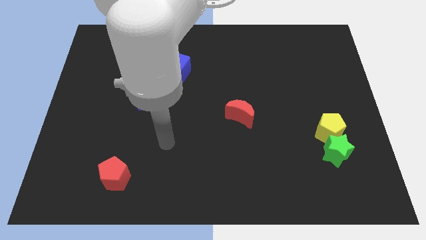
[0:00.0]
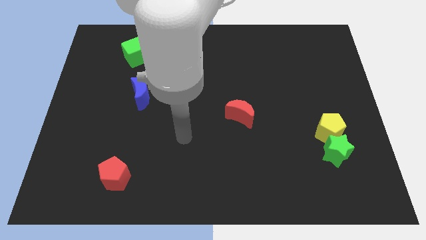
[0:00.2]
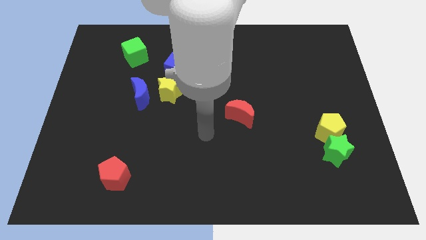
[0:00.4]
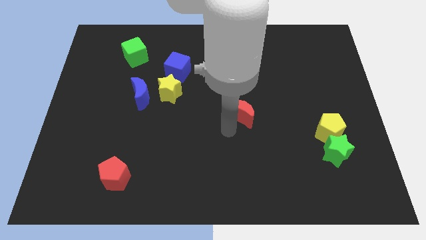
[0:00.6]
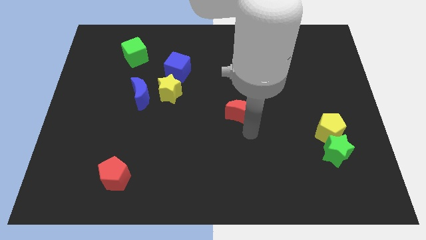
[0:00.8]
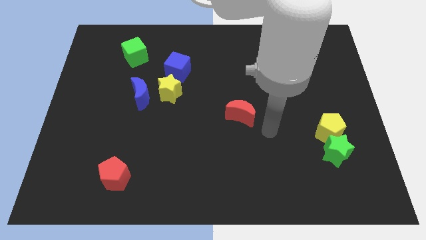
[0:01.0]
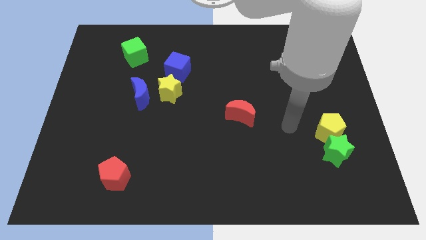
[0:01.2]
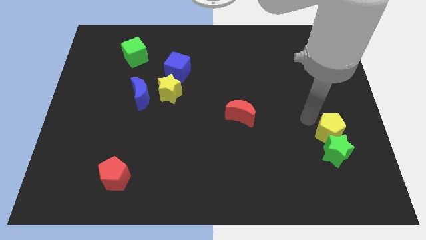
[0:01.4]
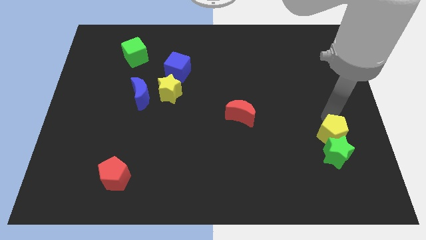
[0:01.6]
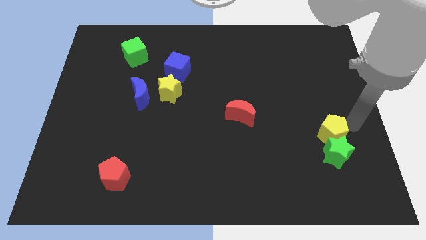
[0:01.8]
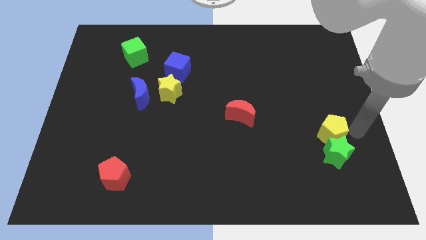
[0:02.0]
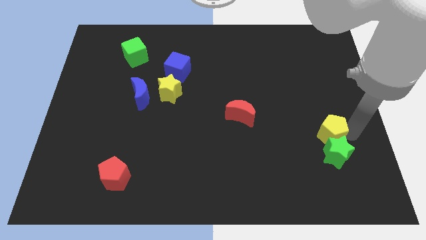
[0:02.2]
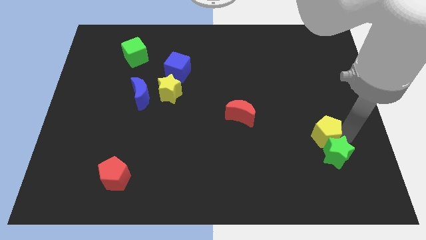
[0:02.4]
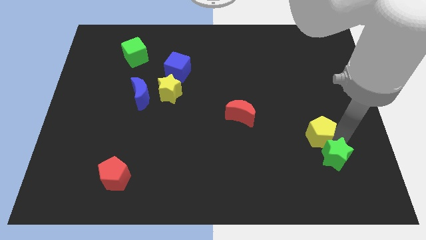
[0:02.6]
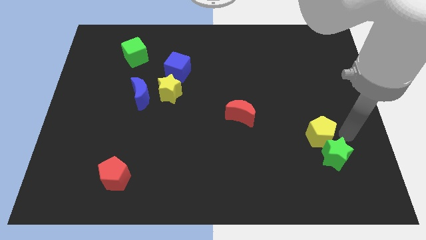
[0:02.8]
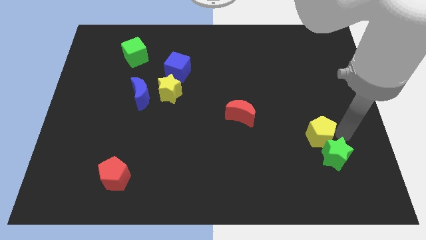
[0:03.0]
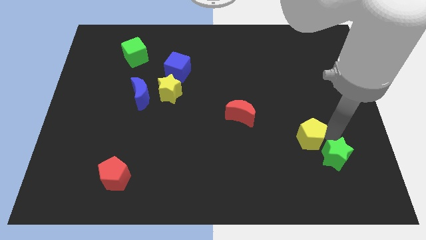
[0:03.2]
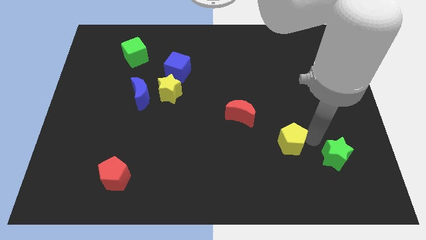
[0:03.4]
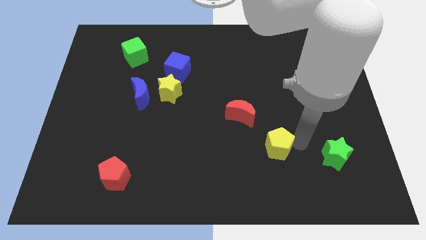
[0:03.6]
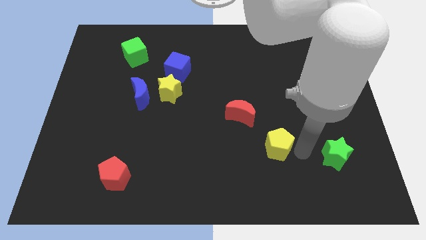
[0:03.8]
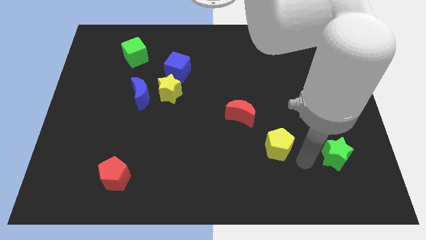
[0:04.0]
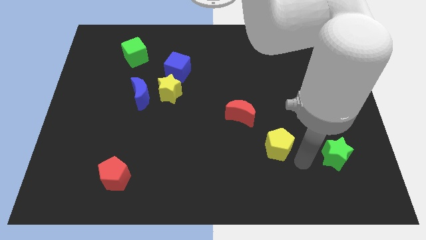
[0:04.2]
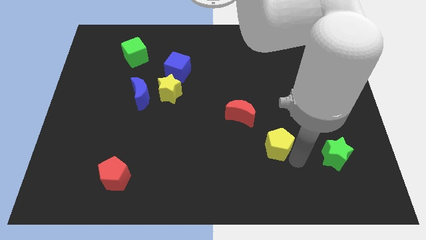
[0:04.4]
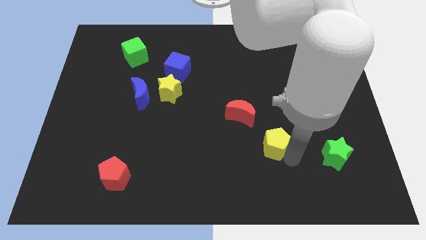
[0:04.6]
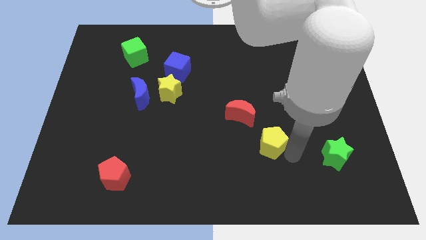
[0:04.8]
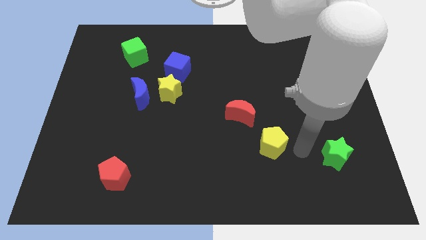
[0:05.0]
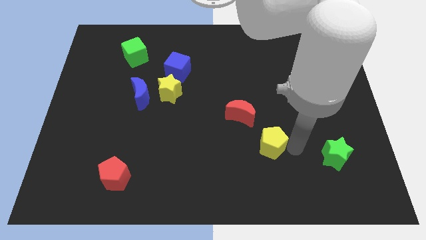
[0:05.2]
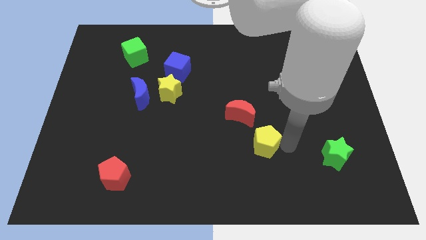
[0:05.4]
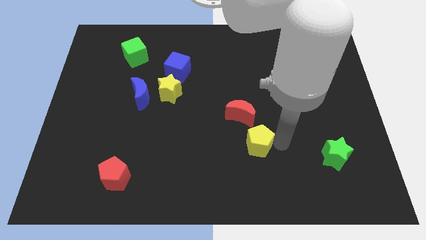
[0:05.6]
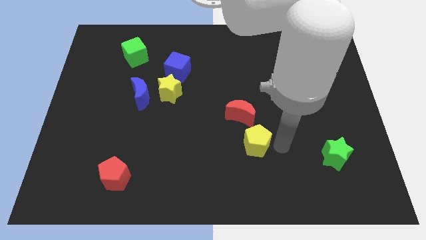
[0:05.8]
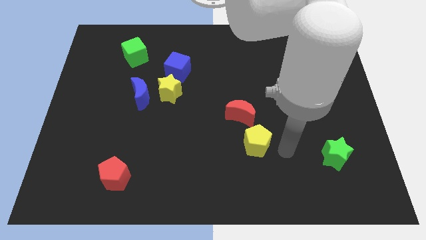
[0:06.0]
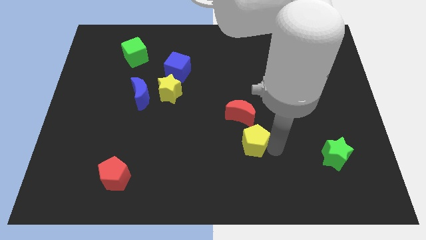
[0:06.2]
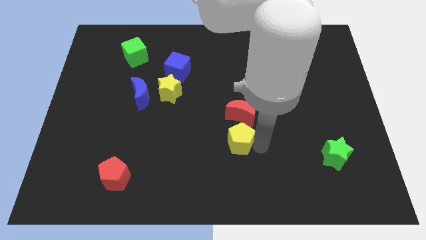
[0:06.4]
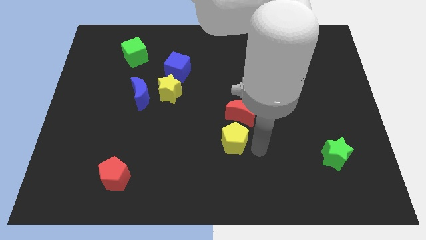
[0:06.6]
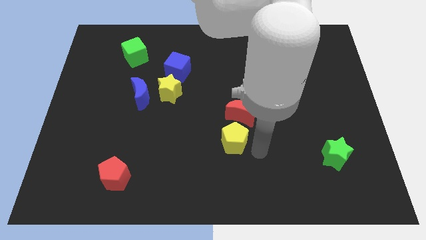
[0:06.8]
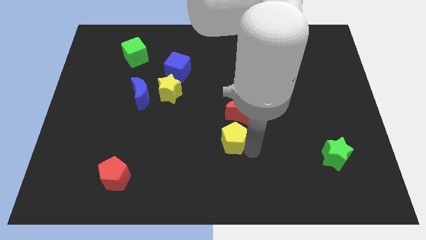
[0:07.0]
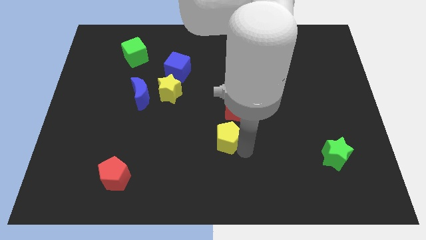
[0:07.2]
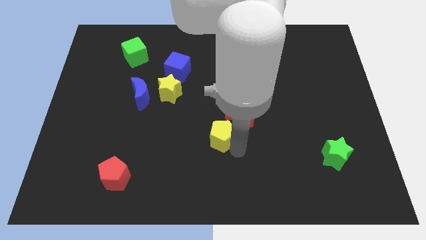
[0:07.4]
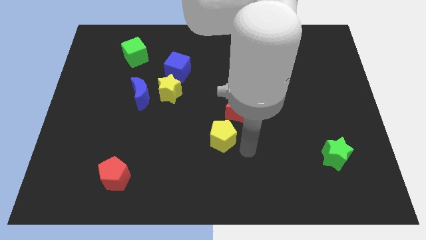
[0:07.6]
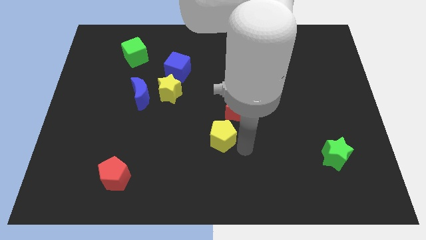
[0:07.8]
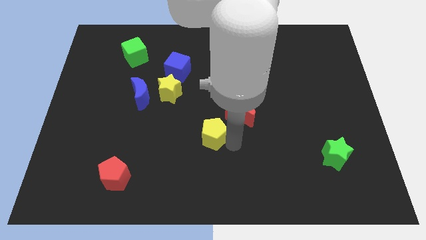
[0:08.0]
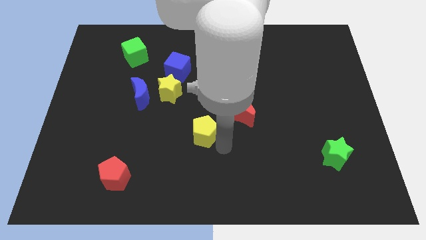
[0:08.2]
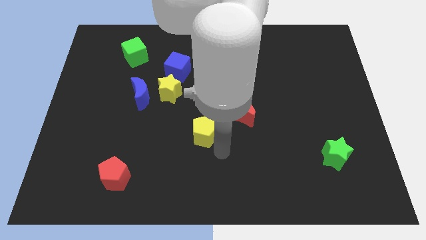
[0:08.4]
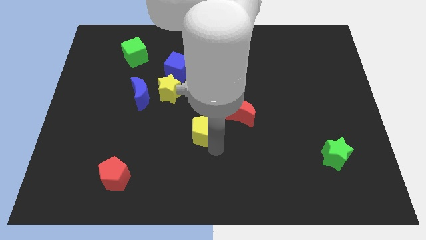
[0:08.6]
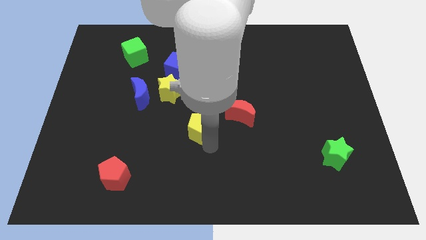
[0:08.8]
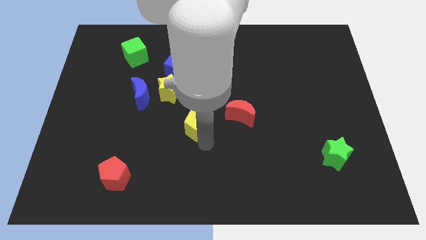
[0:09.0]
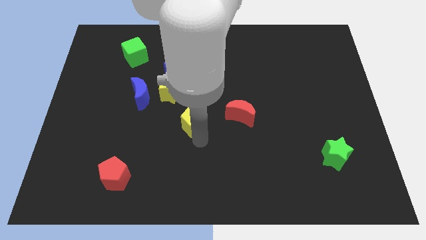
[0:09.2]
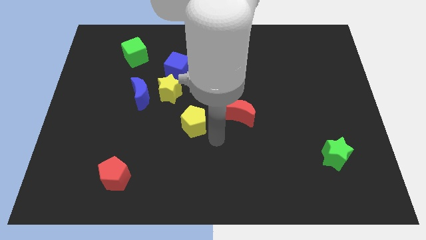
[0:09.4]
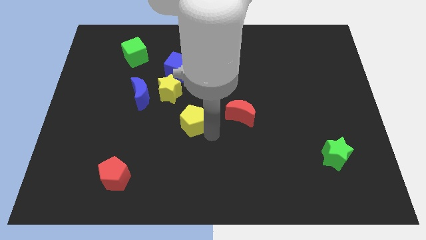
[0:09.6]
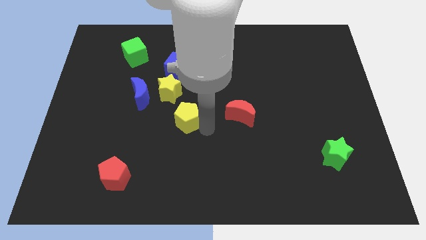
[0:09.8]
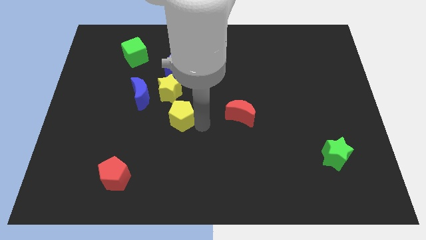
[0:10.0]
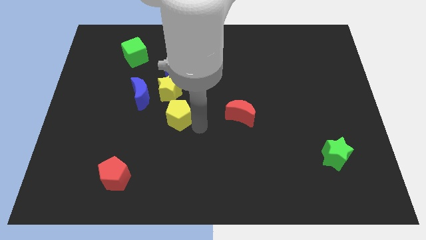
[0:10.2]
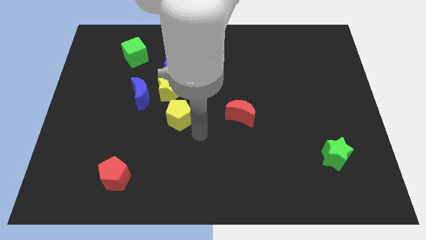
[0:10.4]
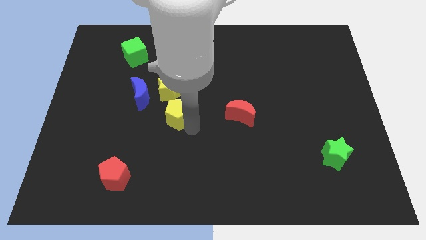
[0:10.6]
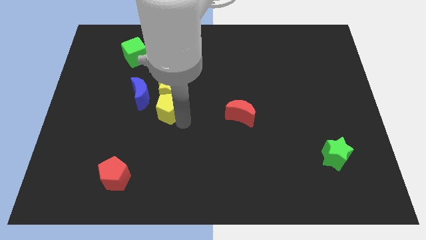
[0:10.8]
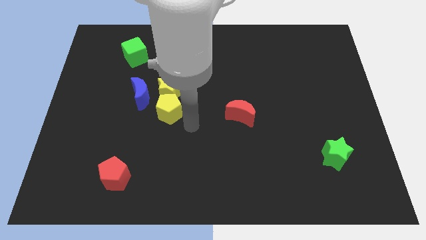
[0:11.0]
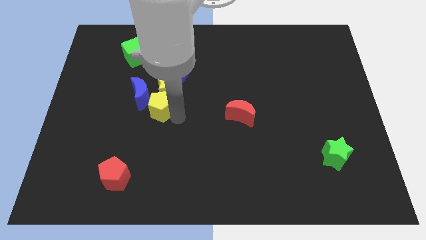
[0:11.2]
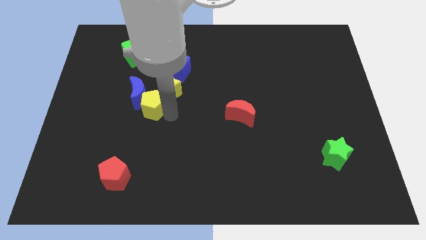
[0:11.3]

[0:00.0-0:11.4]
slide the yellow pentagon close to the blue moon
